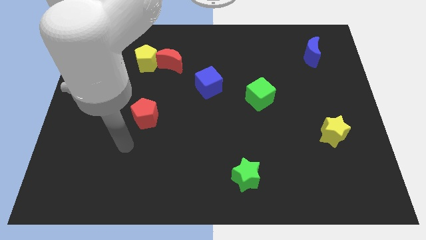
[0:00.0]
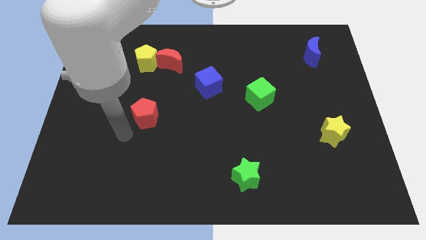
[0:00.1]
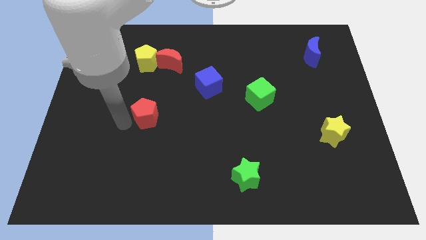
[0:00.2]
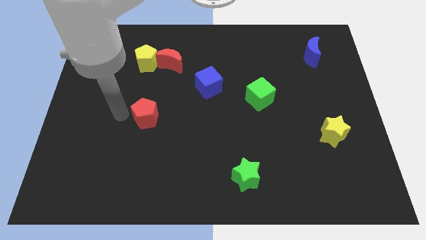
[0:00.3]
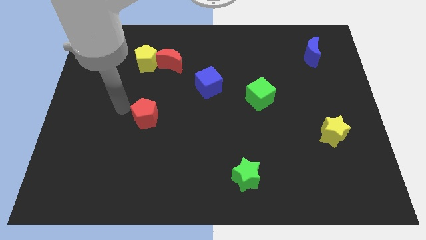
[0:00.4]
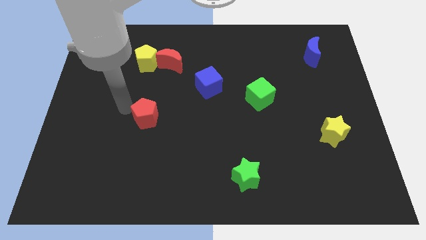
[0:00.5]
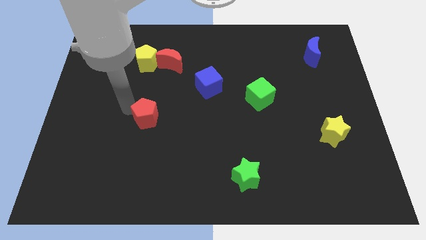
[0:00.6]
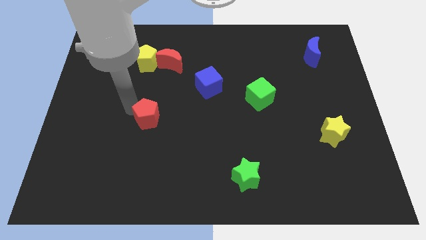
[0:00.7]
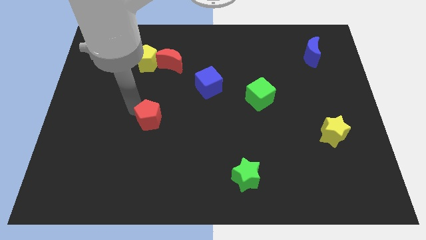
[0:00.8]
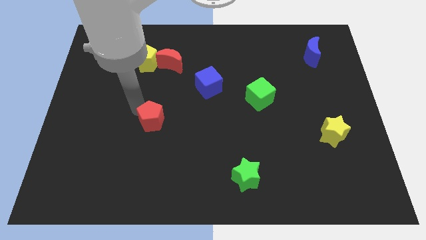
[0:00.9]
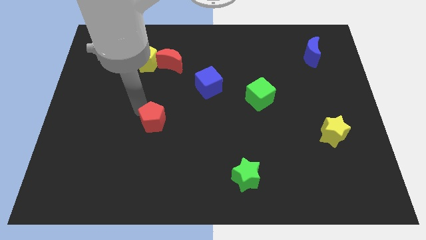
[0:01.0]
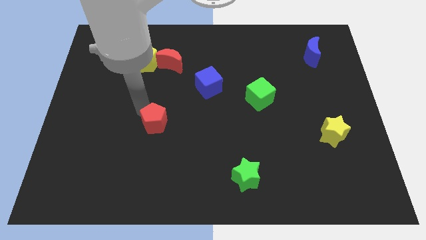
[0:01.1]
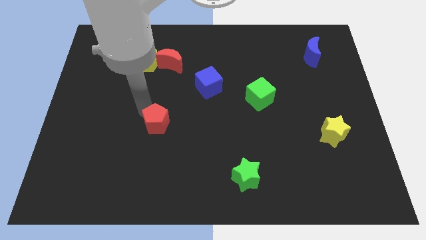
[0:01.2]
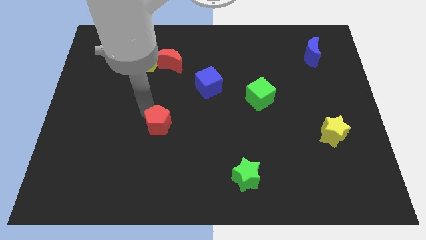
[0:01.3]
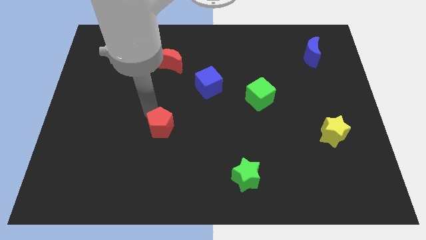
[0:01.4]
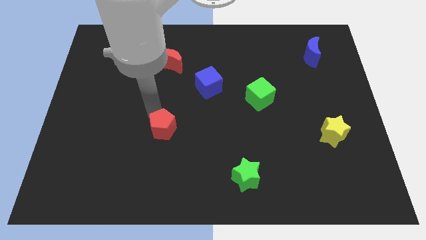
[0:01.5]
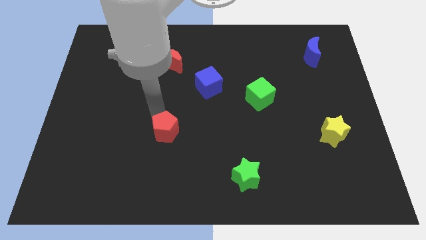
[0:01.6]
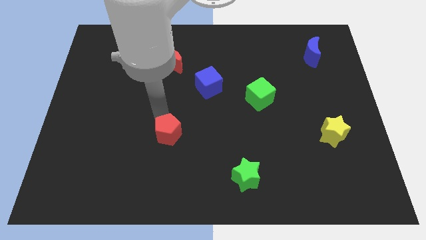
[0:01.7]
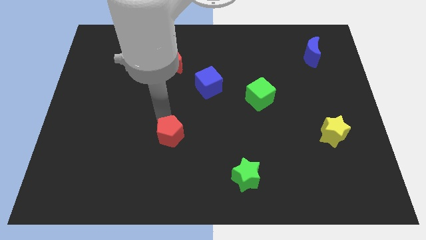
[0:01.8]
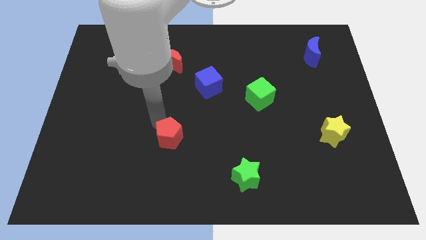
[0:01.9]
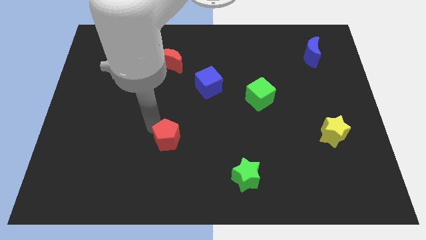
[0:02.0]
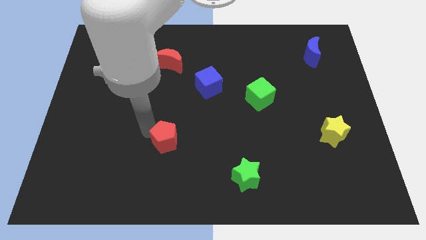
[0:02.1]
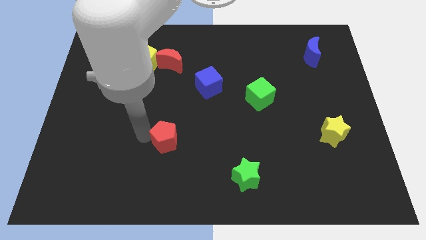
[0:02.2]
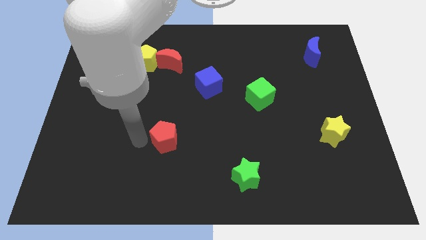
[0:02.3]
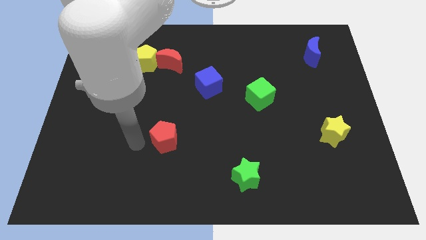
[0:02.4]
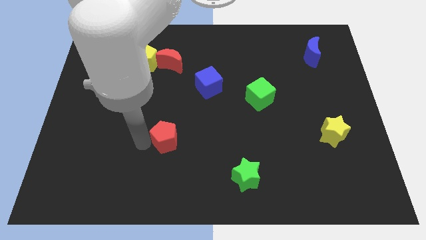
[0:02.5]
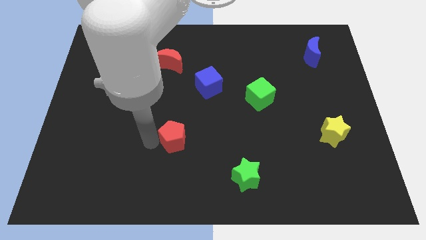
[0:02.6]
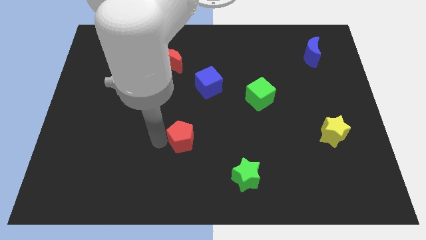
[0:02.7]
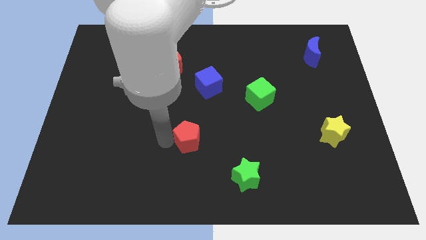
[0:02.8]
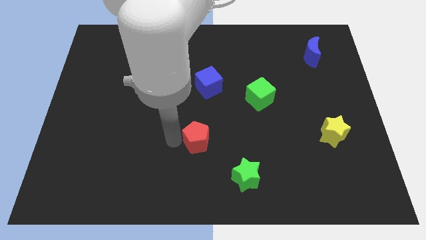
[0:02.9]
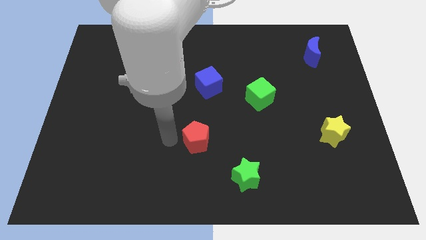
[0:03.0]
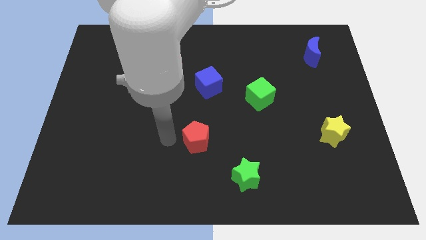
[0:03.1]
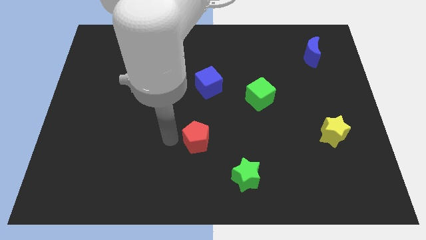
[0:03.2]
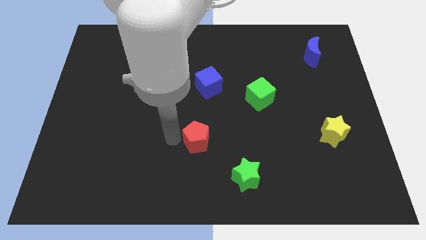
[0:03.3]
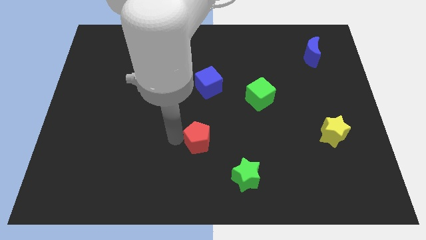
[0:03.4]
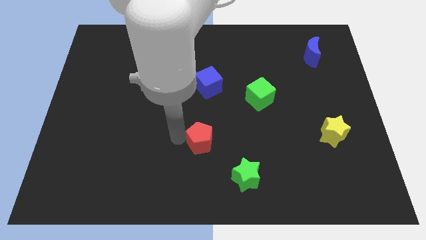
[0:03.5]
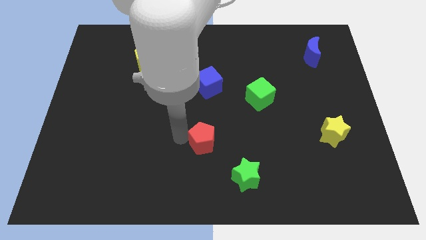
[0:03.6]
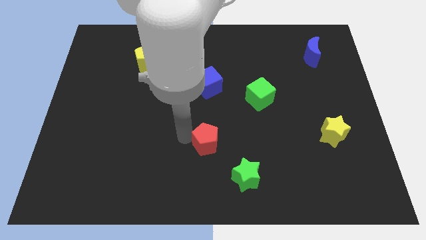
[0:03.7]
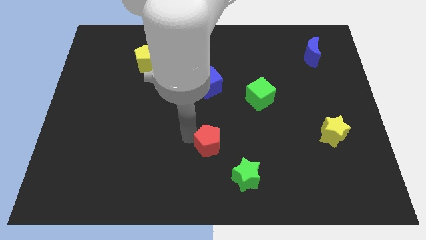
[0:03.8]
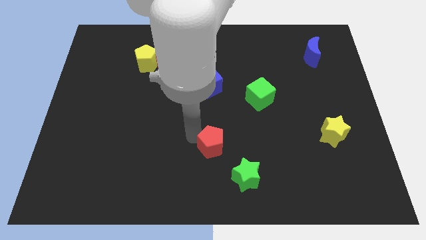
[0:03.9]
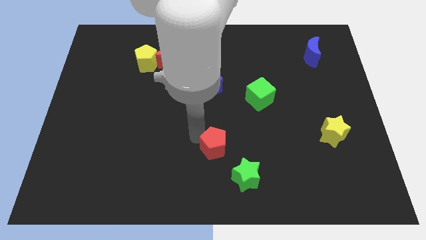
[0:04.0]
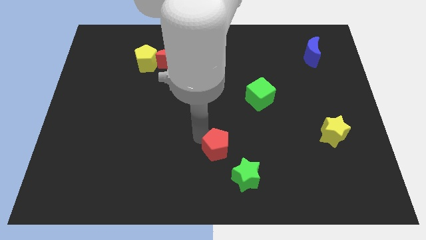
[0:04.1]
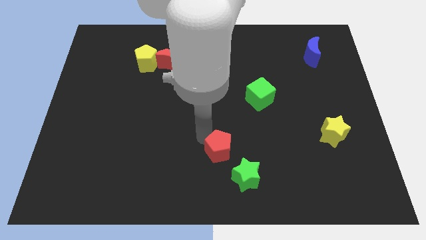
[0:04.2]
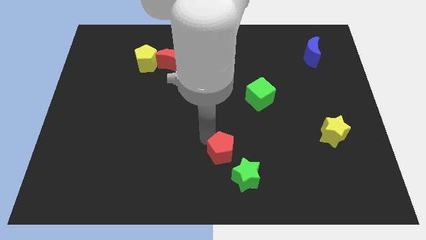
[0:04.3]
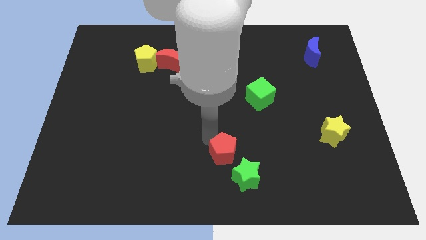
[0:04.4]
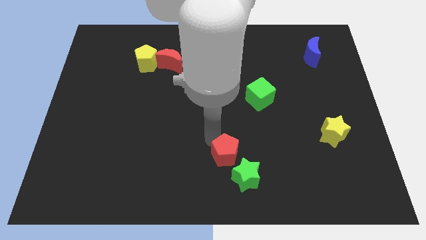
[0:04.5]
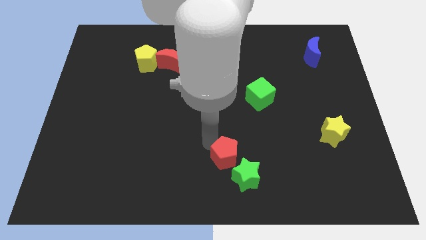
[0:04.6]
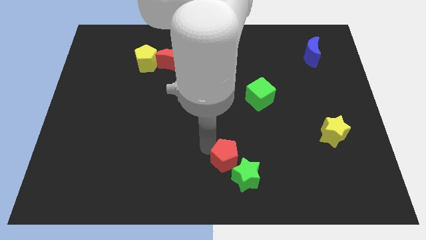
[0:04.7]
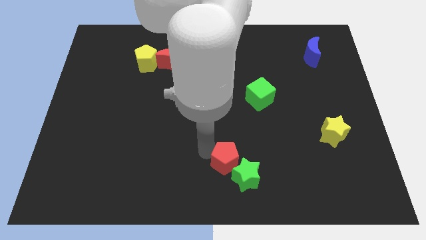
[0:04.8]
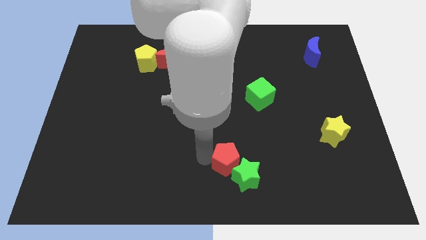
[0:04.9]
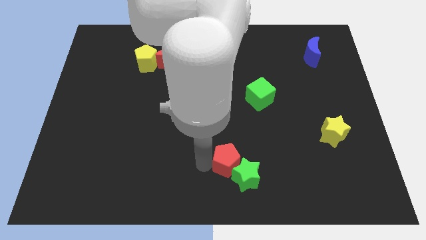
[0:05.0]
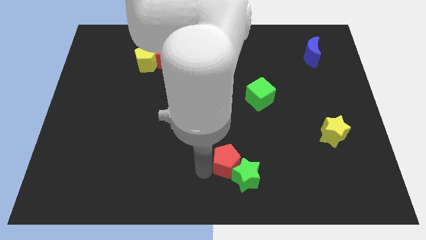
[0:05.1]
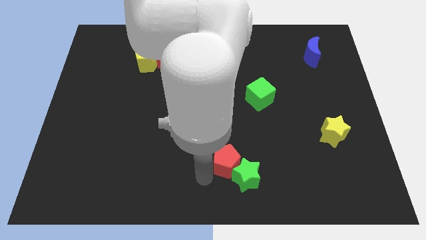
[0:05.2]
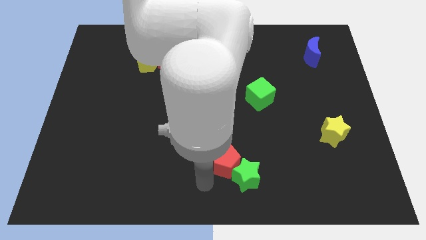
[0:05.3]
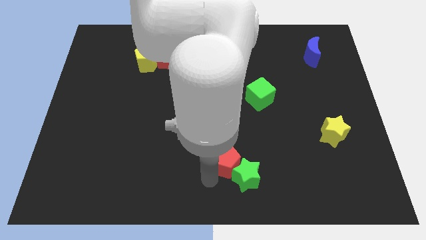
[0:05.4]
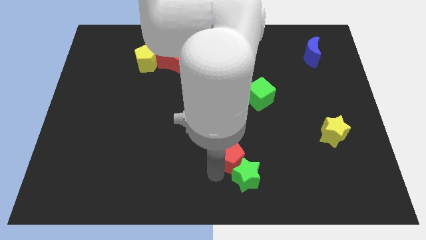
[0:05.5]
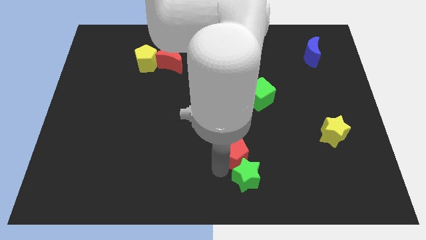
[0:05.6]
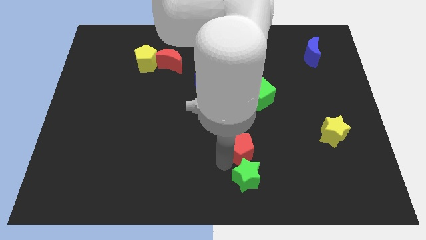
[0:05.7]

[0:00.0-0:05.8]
push the red pentagon to the top right side of the green star

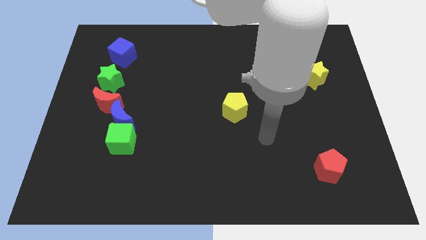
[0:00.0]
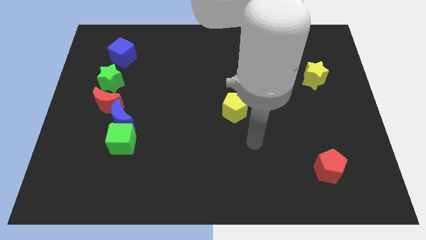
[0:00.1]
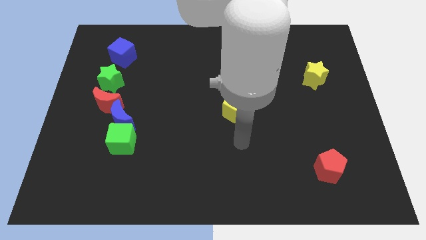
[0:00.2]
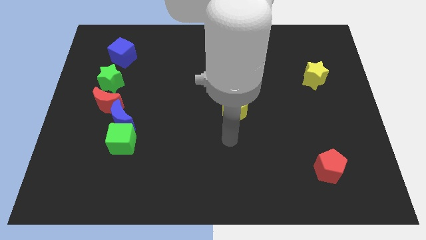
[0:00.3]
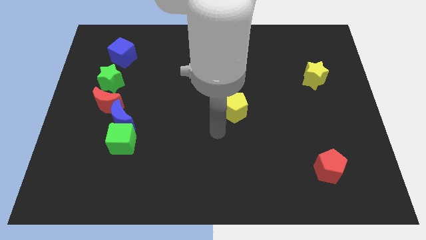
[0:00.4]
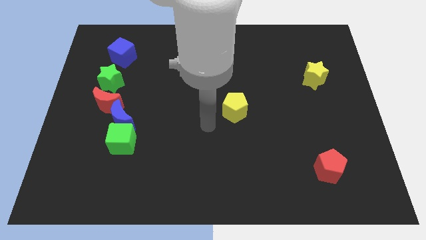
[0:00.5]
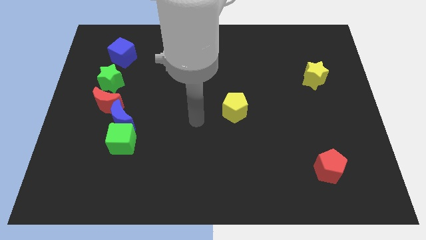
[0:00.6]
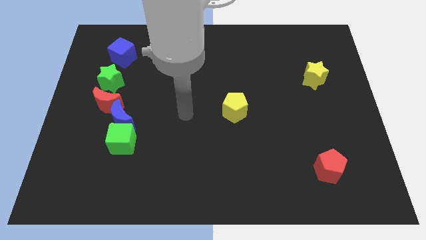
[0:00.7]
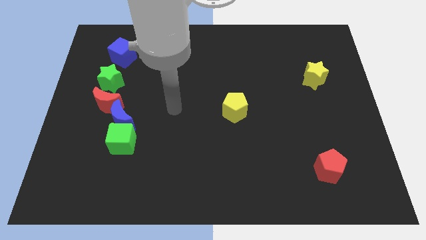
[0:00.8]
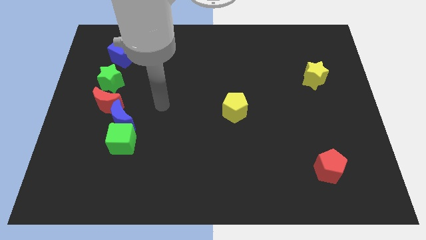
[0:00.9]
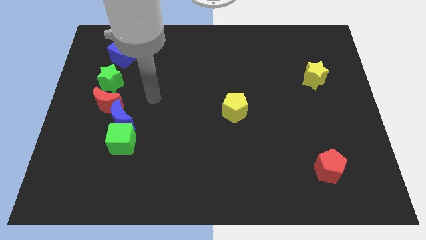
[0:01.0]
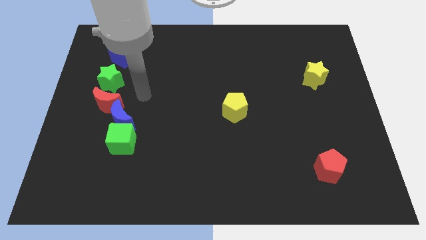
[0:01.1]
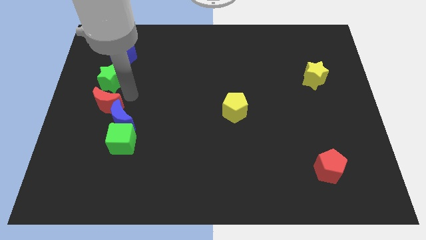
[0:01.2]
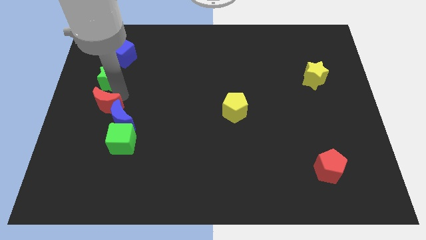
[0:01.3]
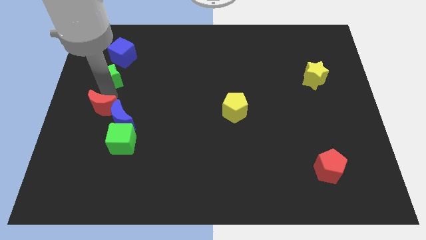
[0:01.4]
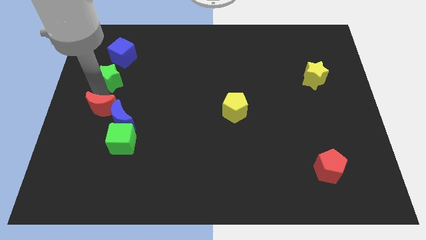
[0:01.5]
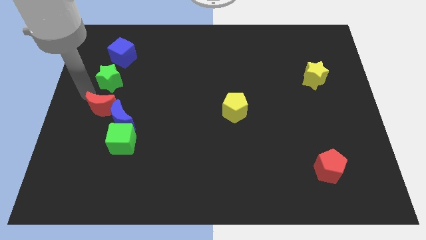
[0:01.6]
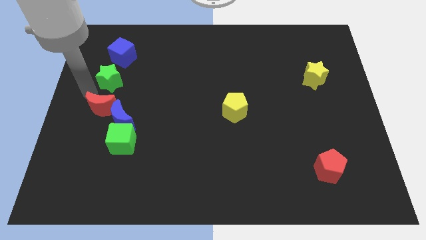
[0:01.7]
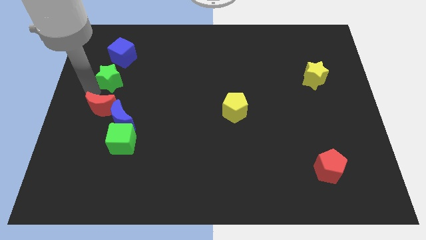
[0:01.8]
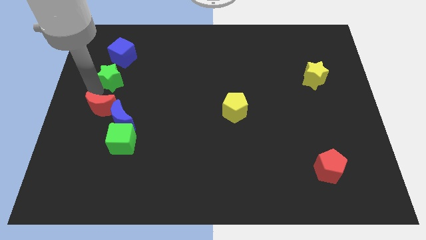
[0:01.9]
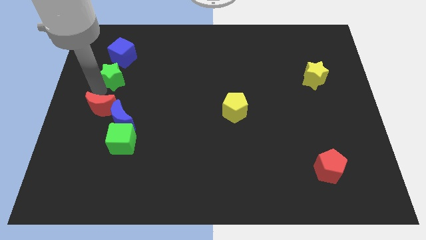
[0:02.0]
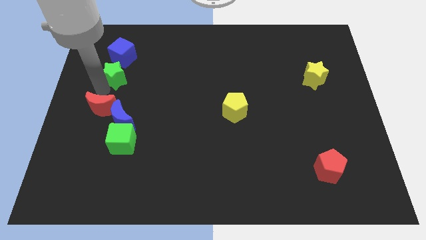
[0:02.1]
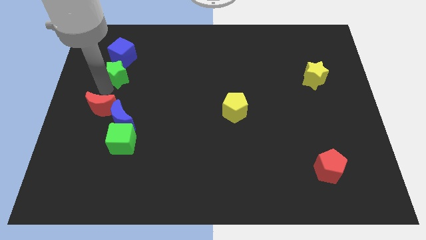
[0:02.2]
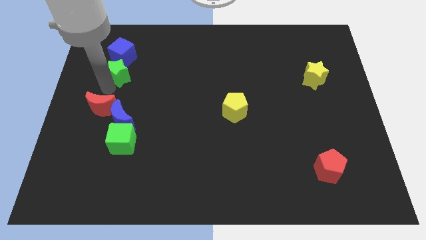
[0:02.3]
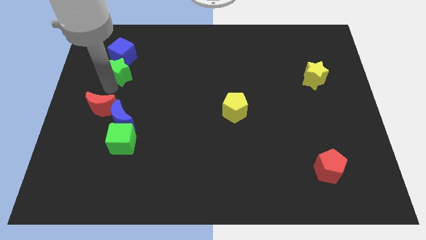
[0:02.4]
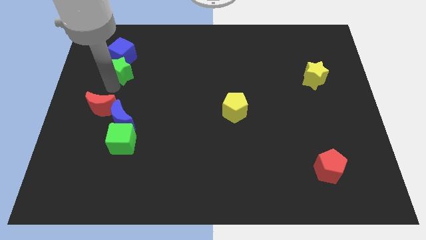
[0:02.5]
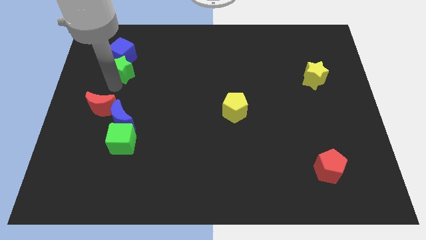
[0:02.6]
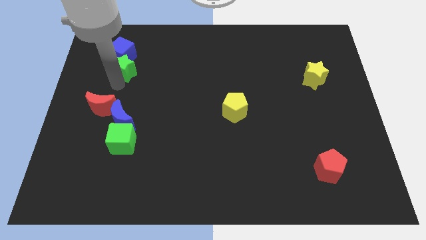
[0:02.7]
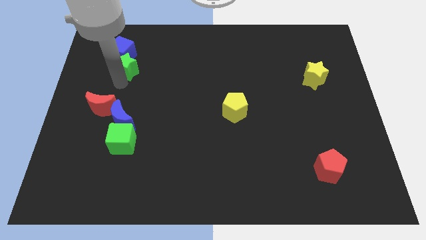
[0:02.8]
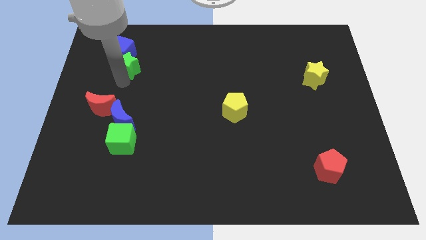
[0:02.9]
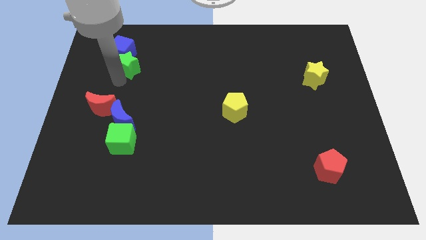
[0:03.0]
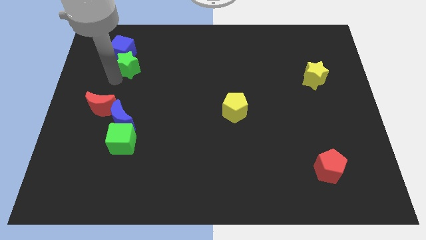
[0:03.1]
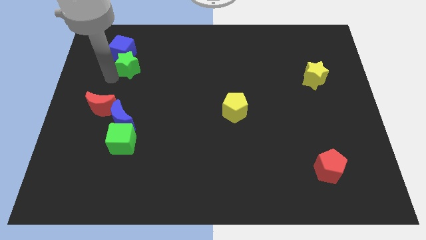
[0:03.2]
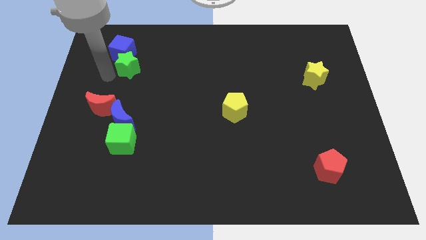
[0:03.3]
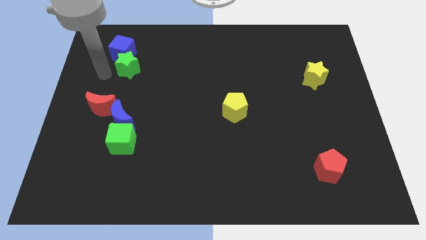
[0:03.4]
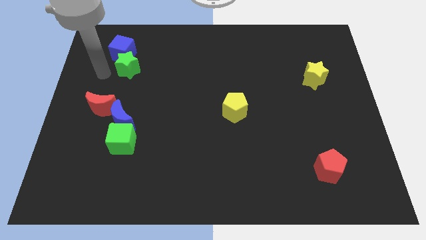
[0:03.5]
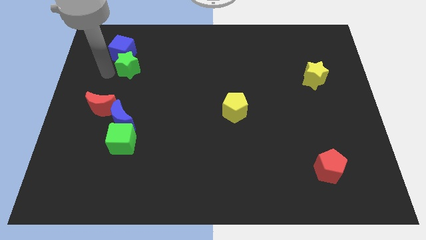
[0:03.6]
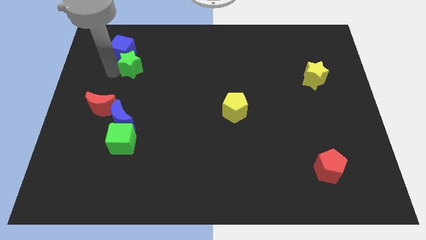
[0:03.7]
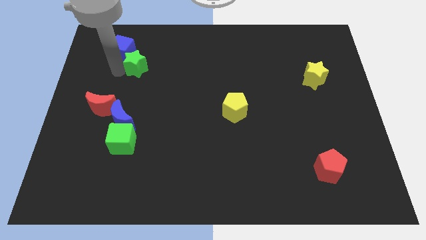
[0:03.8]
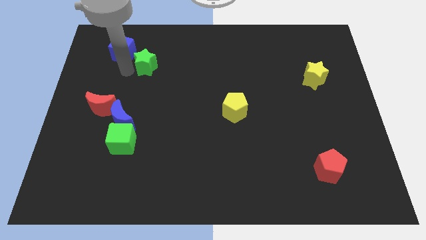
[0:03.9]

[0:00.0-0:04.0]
put the green star to the right side of the blue cube
